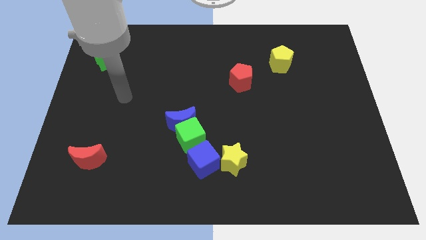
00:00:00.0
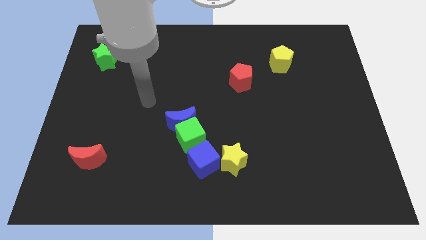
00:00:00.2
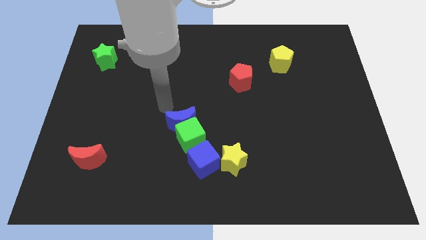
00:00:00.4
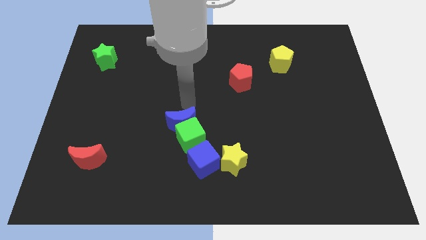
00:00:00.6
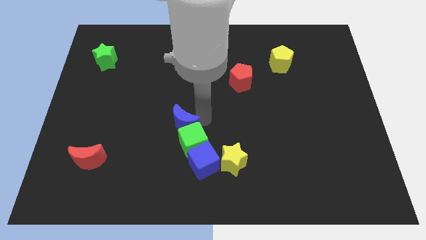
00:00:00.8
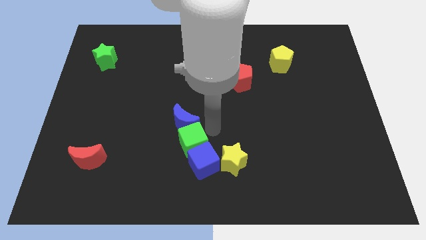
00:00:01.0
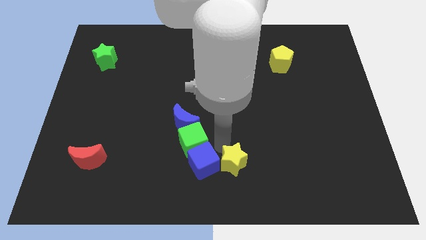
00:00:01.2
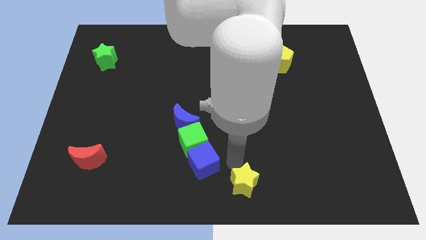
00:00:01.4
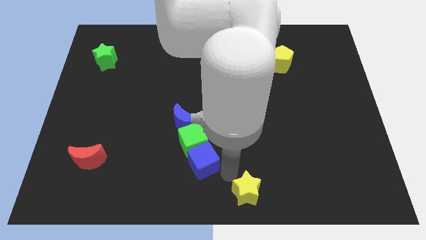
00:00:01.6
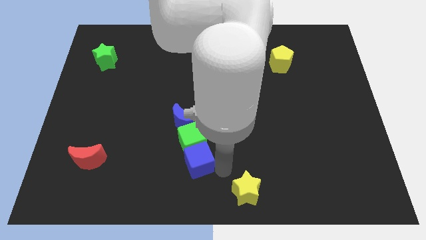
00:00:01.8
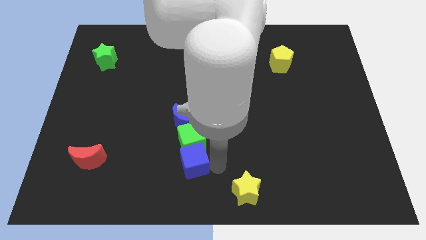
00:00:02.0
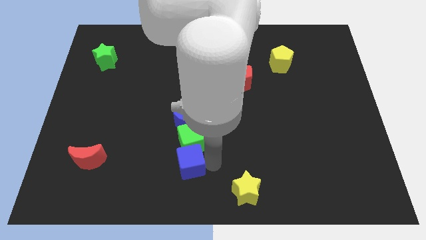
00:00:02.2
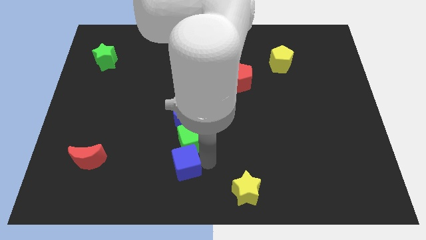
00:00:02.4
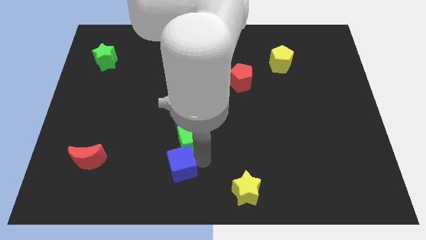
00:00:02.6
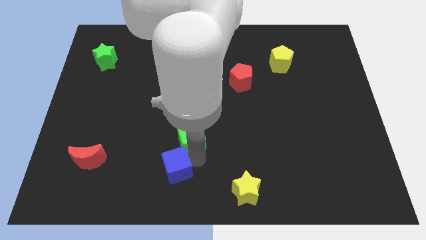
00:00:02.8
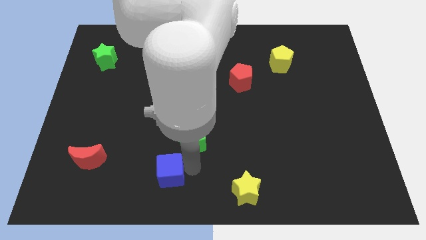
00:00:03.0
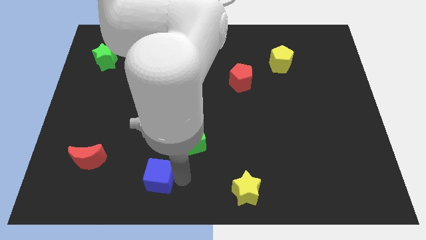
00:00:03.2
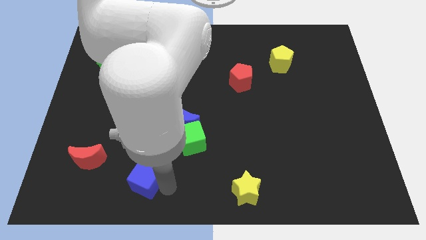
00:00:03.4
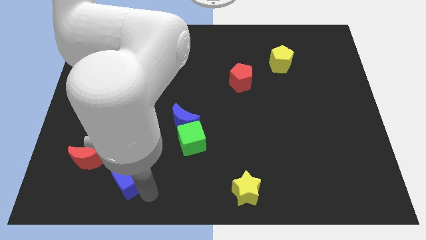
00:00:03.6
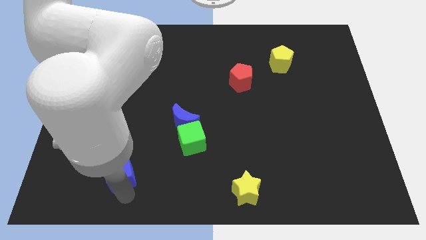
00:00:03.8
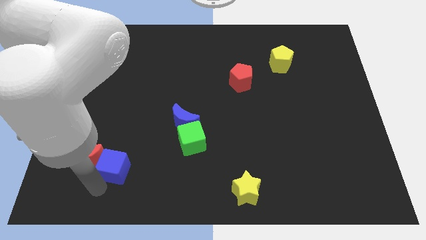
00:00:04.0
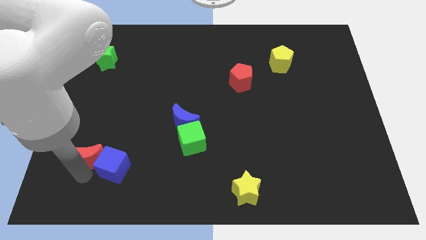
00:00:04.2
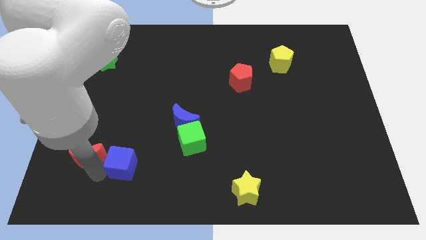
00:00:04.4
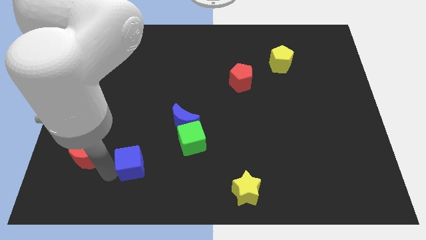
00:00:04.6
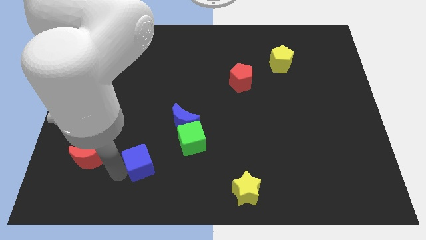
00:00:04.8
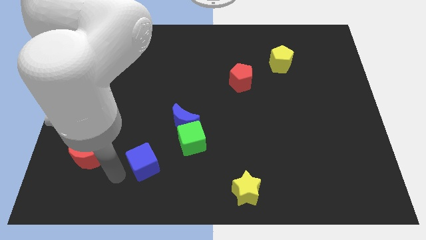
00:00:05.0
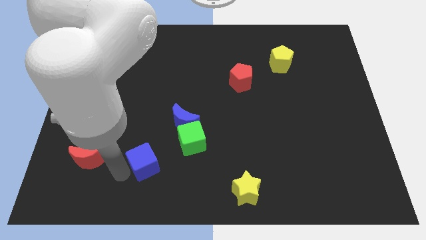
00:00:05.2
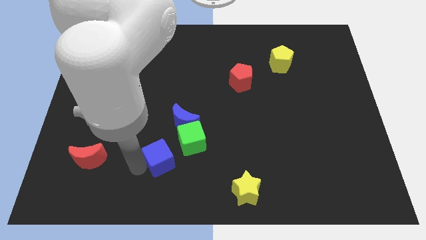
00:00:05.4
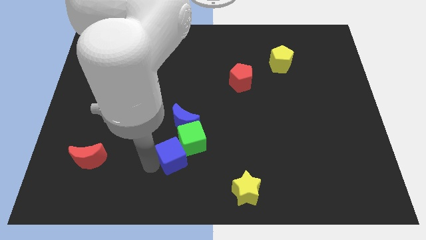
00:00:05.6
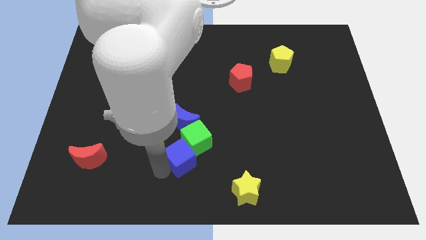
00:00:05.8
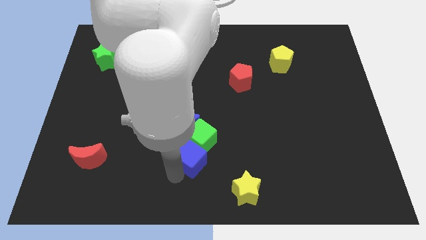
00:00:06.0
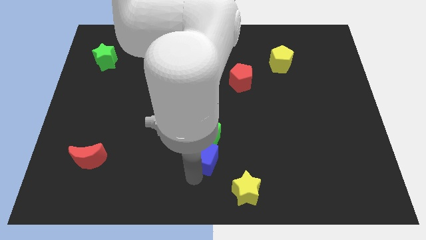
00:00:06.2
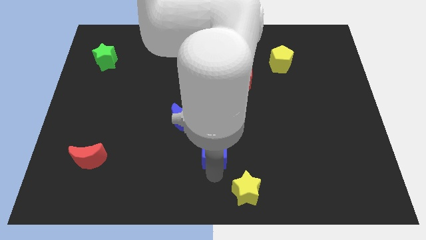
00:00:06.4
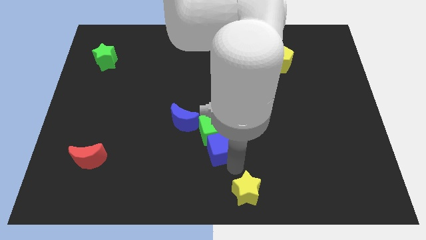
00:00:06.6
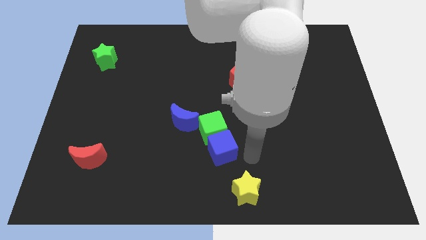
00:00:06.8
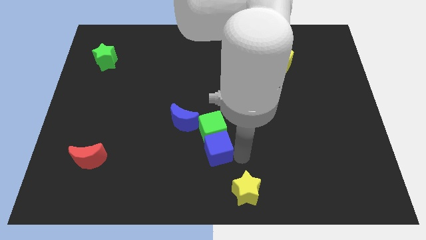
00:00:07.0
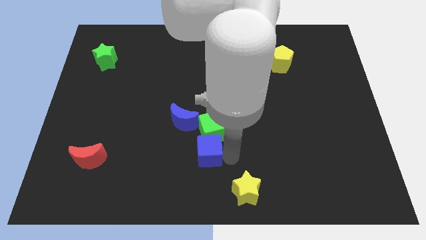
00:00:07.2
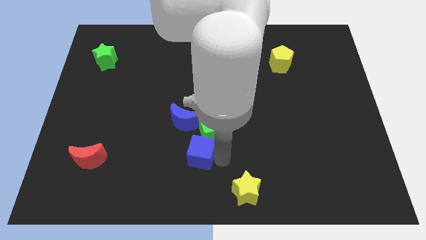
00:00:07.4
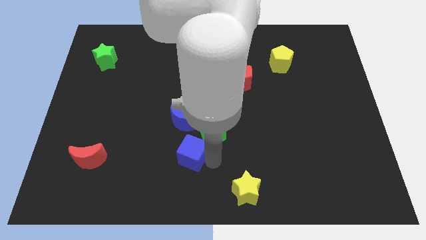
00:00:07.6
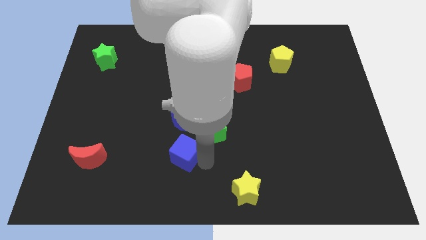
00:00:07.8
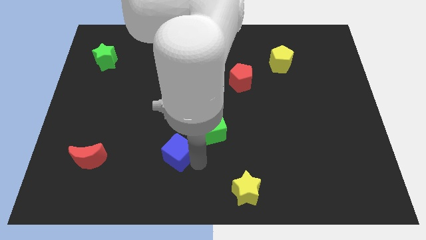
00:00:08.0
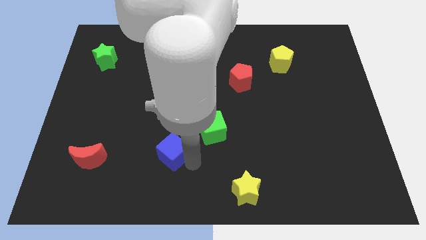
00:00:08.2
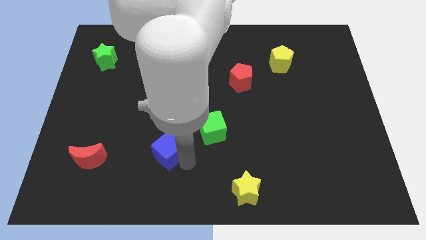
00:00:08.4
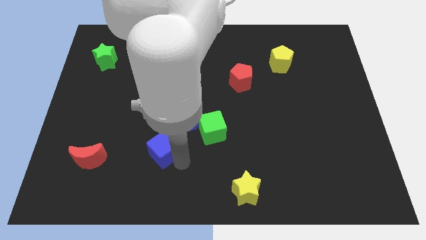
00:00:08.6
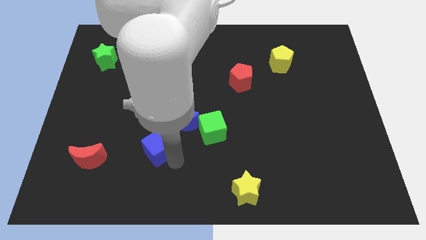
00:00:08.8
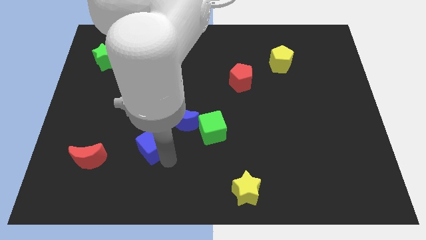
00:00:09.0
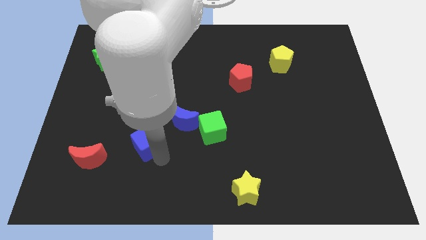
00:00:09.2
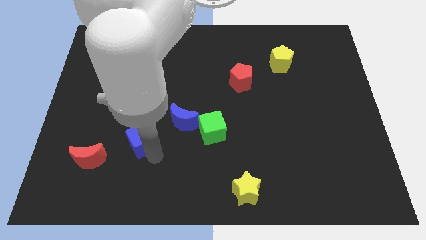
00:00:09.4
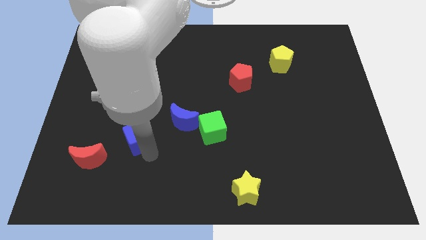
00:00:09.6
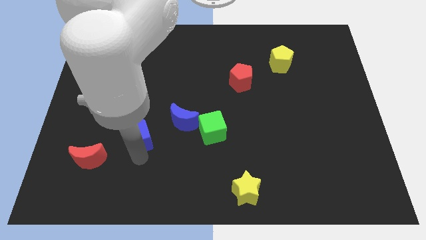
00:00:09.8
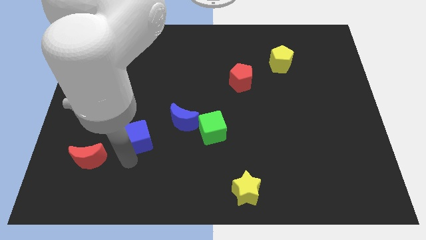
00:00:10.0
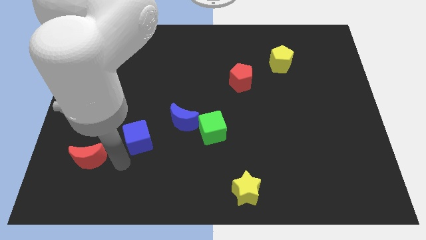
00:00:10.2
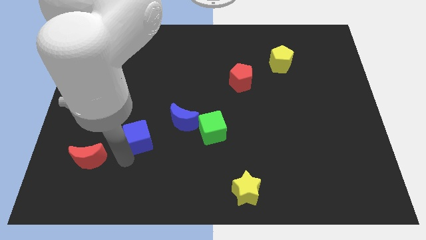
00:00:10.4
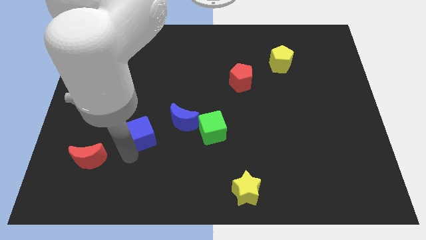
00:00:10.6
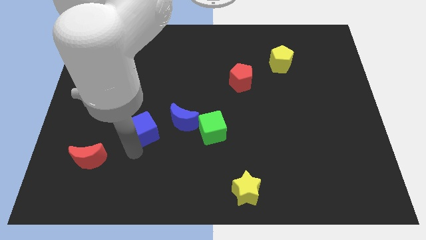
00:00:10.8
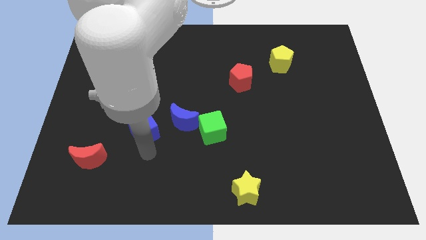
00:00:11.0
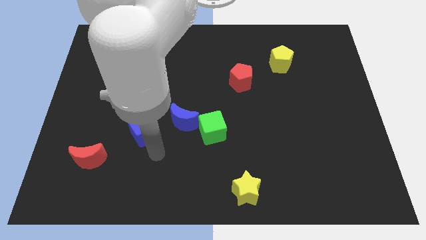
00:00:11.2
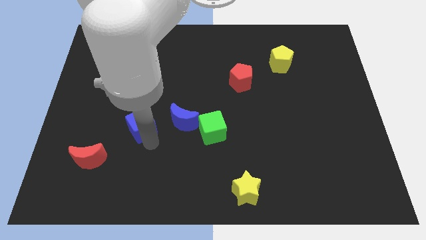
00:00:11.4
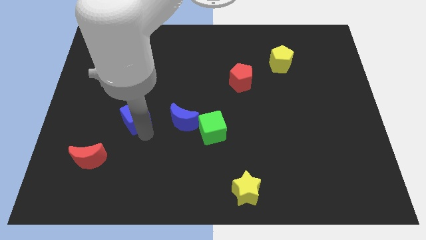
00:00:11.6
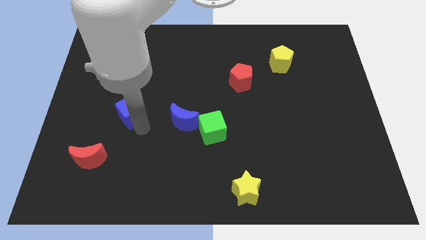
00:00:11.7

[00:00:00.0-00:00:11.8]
push the blue cube up and then left

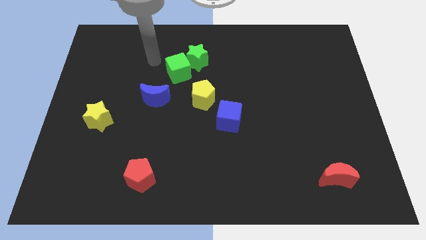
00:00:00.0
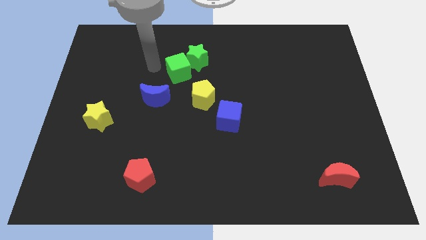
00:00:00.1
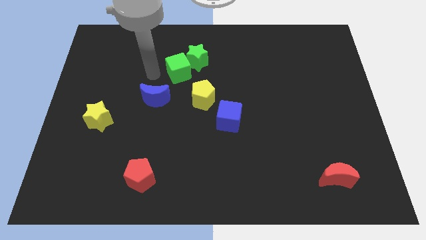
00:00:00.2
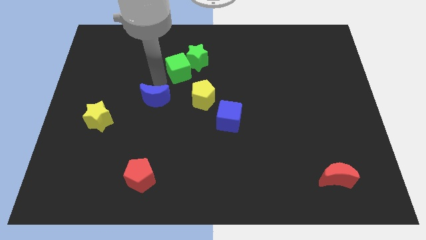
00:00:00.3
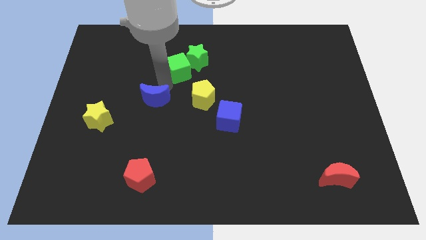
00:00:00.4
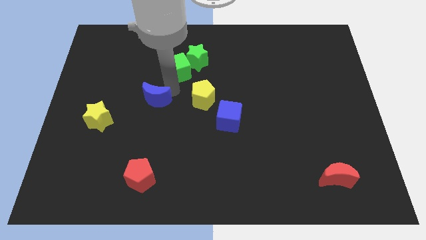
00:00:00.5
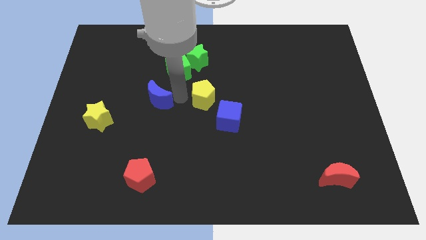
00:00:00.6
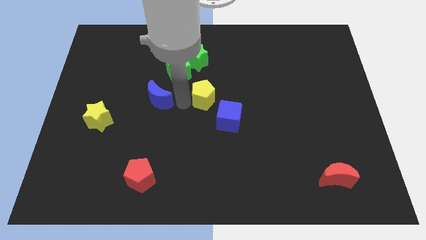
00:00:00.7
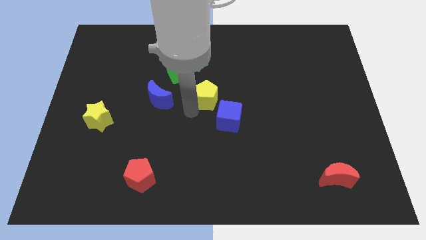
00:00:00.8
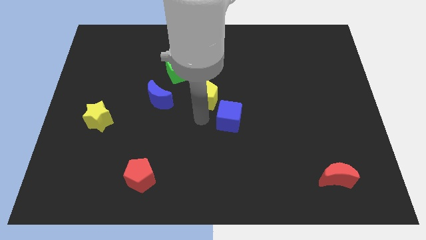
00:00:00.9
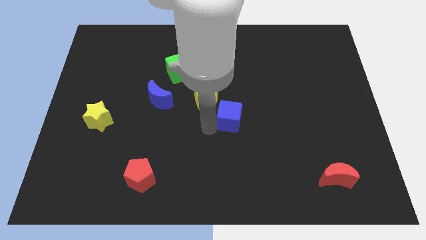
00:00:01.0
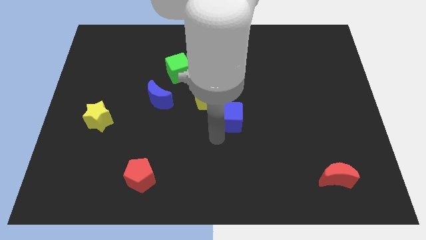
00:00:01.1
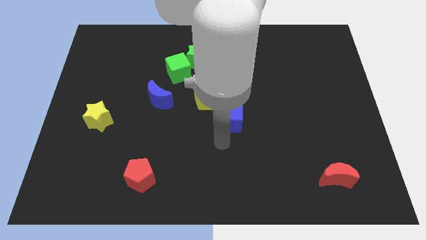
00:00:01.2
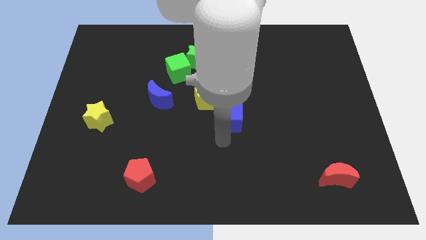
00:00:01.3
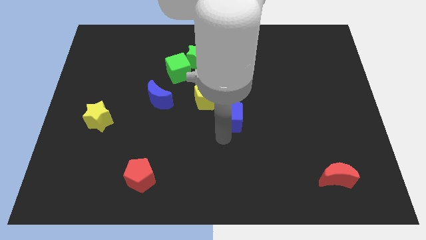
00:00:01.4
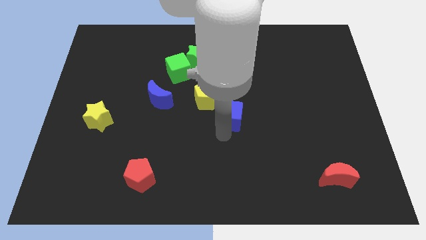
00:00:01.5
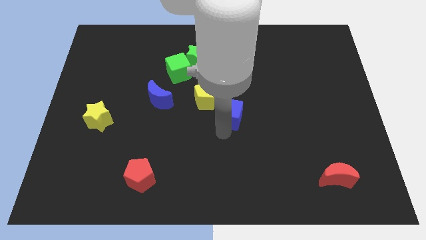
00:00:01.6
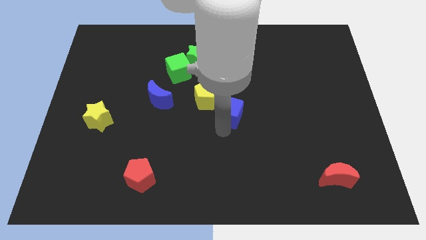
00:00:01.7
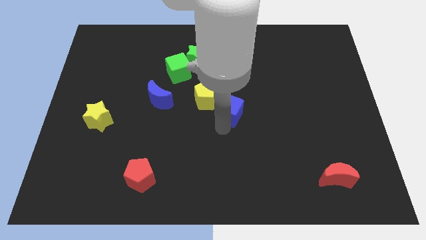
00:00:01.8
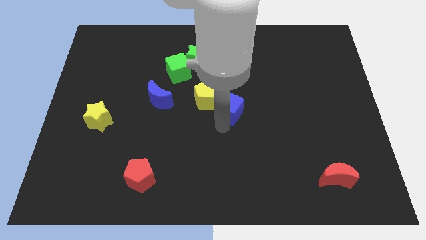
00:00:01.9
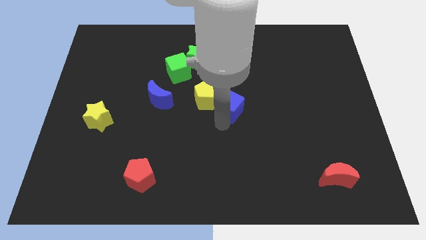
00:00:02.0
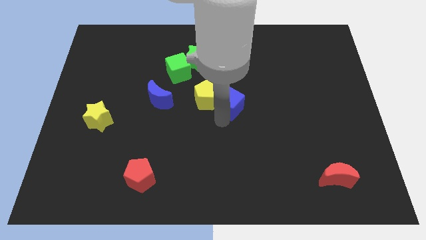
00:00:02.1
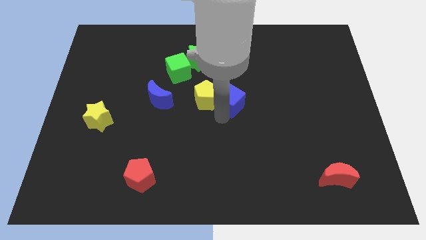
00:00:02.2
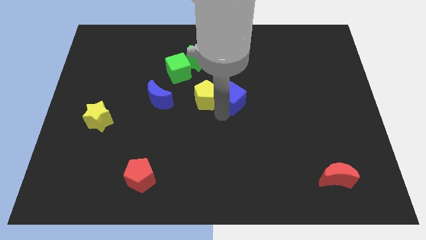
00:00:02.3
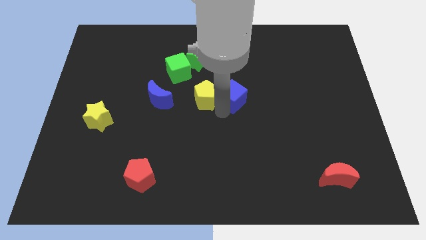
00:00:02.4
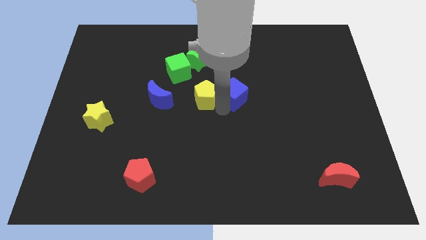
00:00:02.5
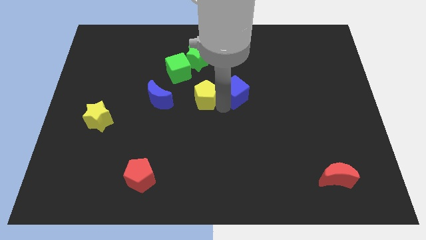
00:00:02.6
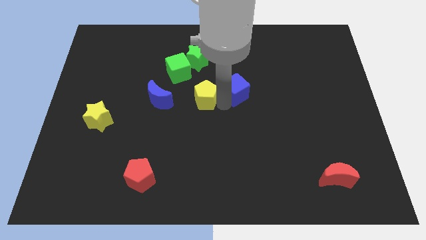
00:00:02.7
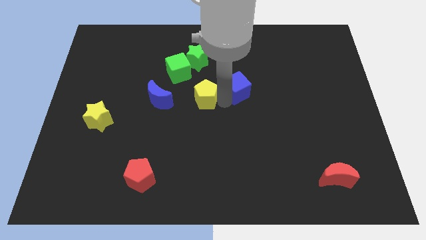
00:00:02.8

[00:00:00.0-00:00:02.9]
push the blue cube a little up and to the right diagonally
